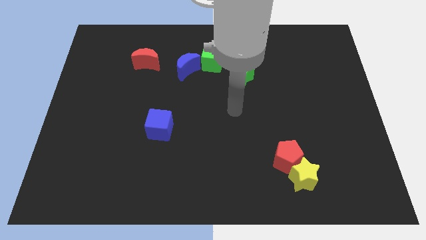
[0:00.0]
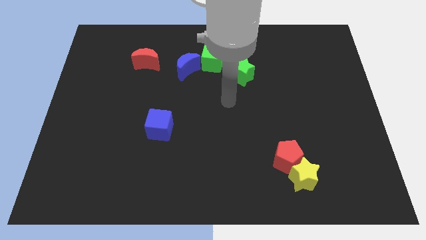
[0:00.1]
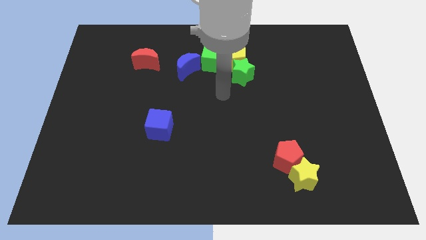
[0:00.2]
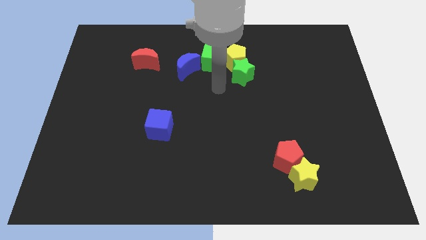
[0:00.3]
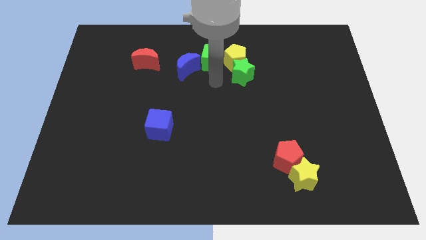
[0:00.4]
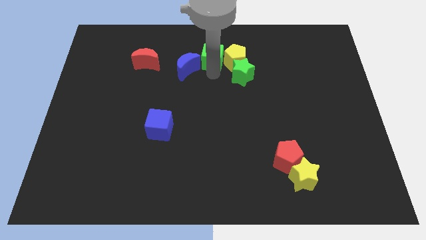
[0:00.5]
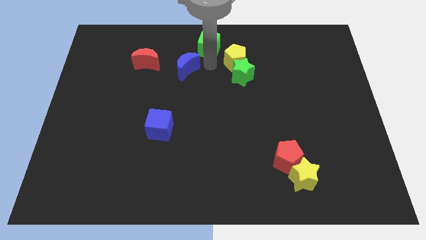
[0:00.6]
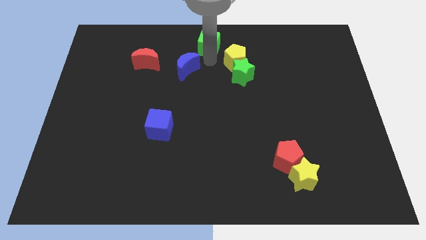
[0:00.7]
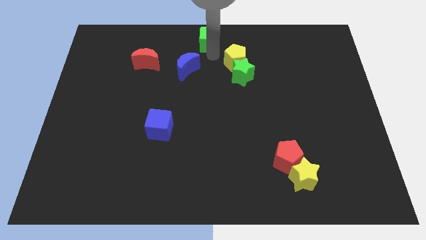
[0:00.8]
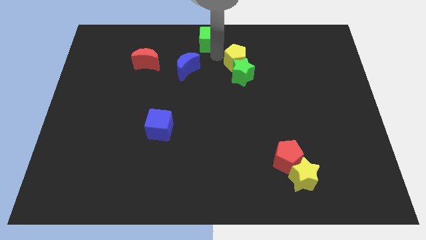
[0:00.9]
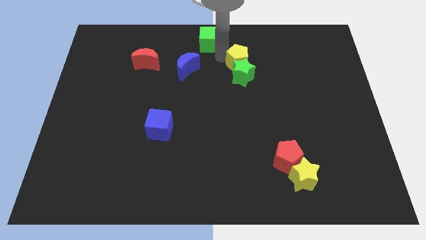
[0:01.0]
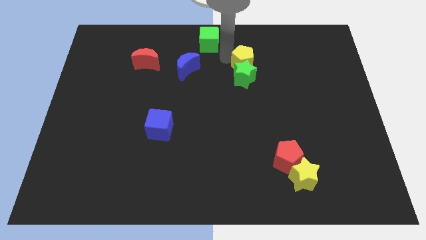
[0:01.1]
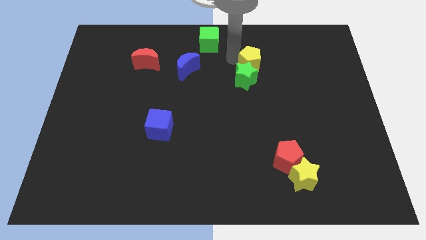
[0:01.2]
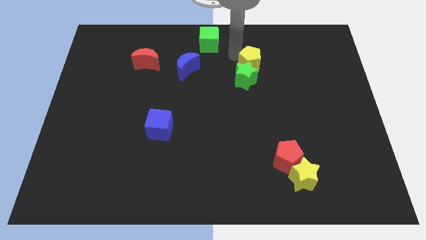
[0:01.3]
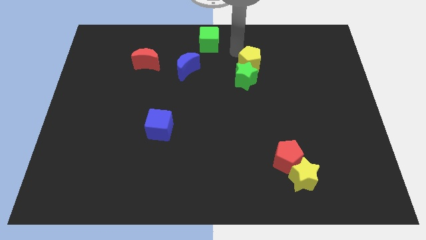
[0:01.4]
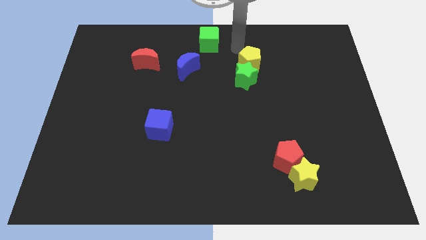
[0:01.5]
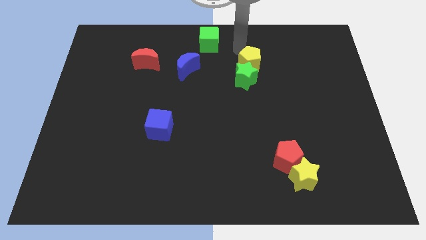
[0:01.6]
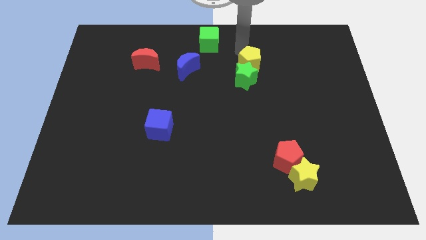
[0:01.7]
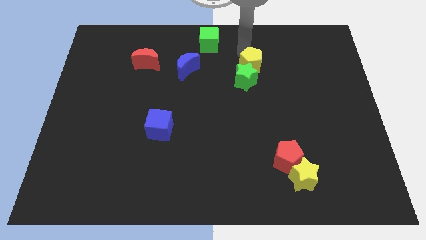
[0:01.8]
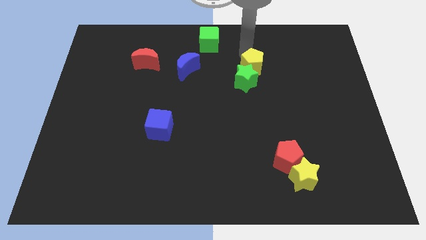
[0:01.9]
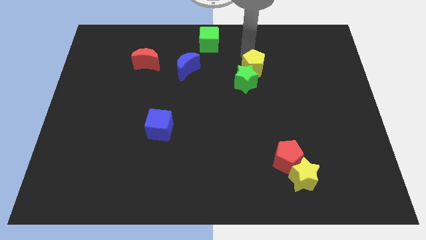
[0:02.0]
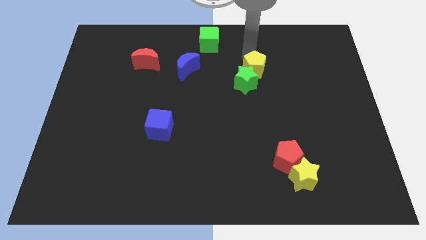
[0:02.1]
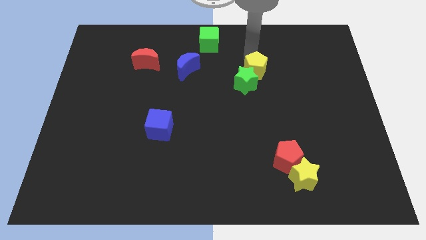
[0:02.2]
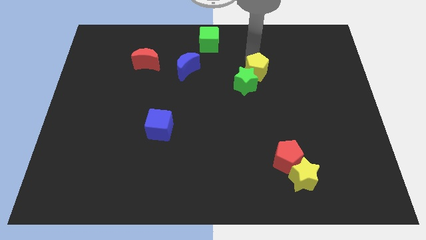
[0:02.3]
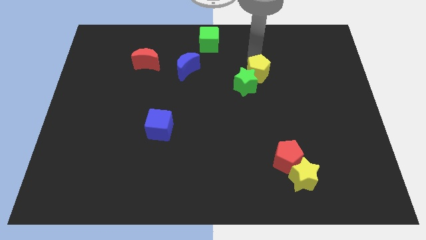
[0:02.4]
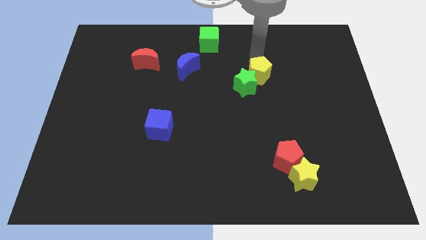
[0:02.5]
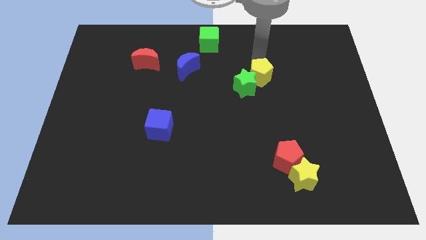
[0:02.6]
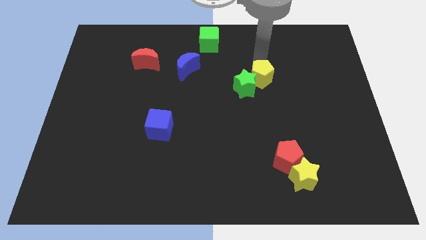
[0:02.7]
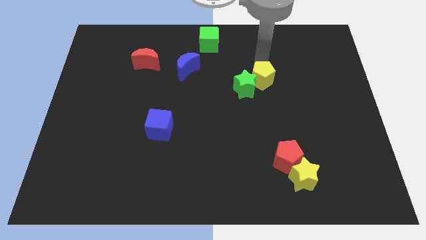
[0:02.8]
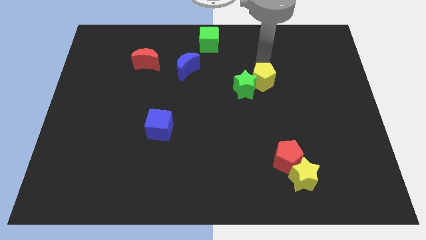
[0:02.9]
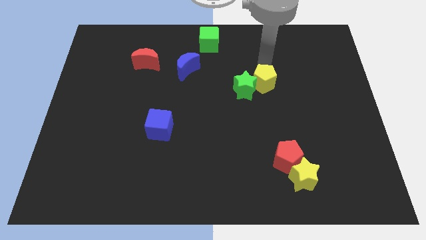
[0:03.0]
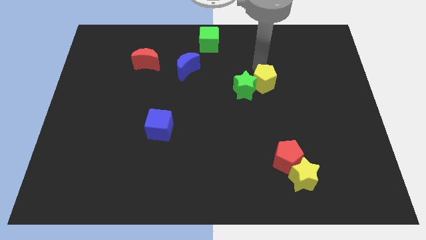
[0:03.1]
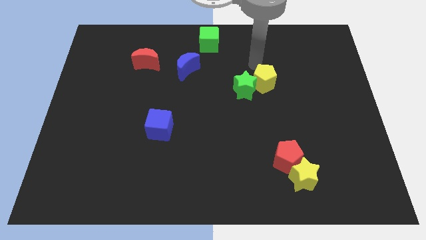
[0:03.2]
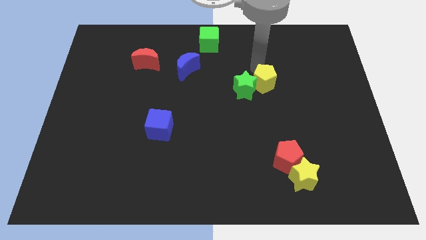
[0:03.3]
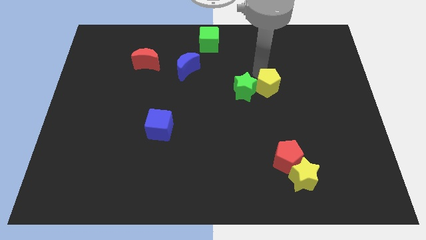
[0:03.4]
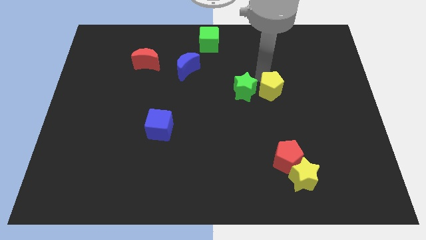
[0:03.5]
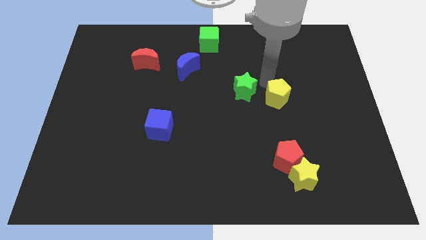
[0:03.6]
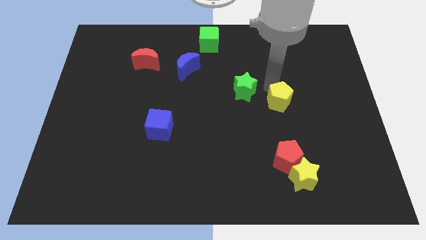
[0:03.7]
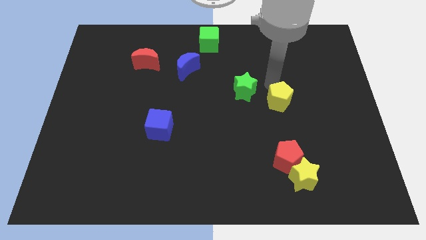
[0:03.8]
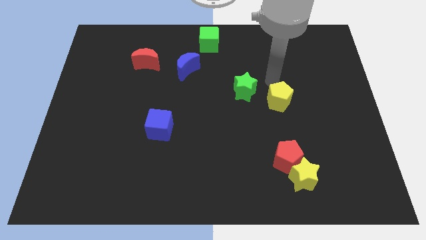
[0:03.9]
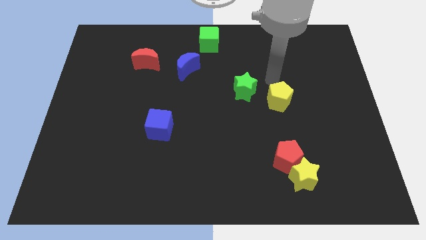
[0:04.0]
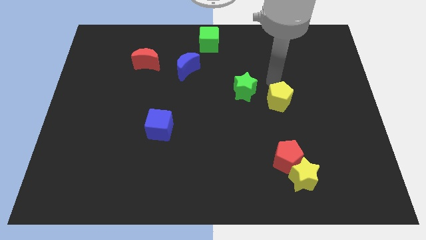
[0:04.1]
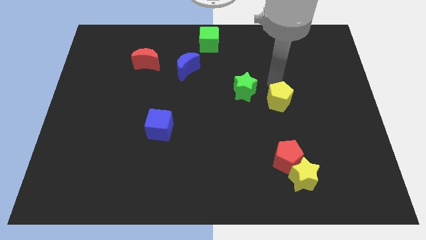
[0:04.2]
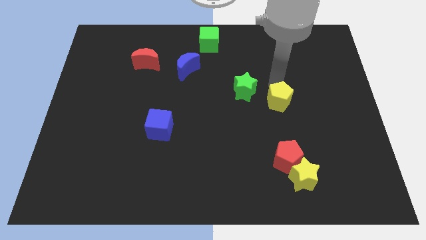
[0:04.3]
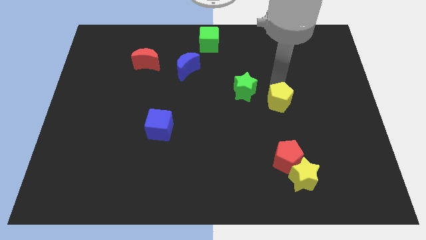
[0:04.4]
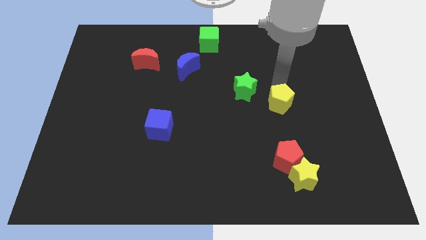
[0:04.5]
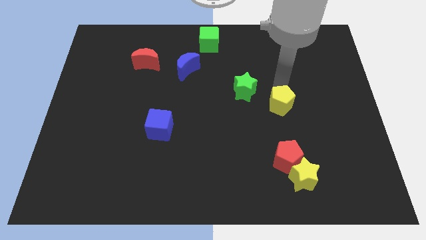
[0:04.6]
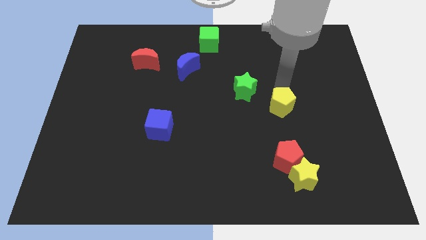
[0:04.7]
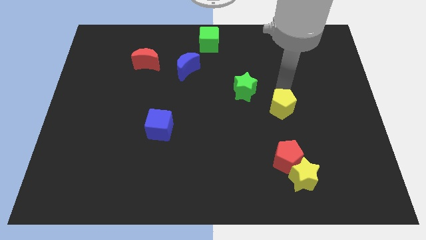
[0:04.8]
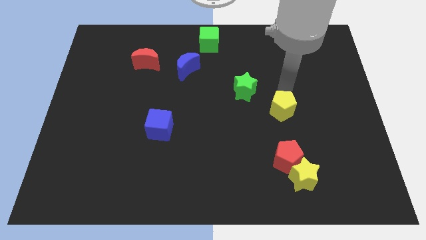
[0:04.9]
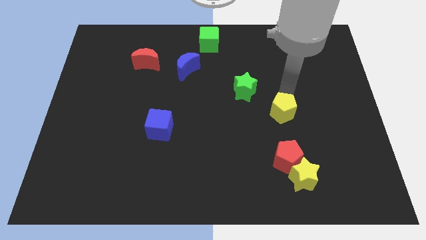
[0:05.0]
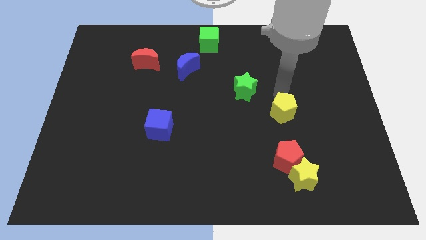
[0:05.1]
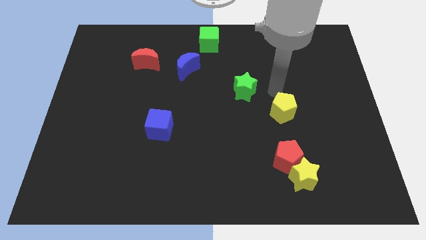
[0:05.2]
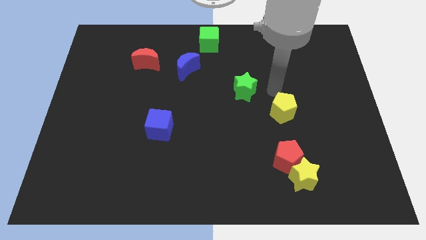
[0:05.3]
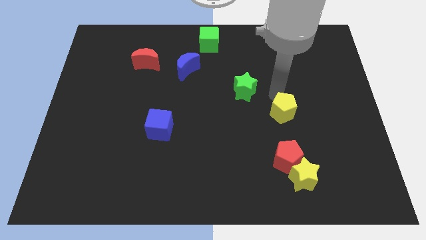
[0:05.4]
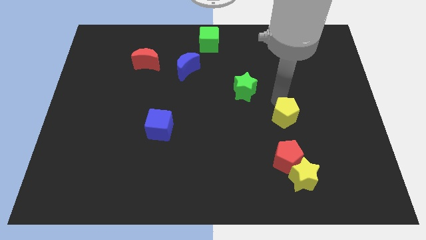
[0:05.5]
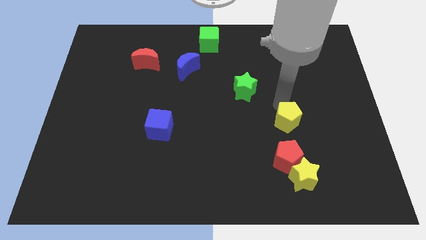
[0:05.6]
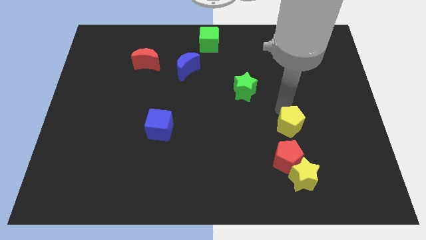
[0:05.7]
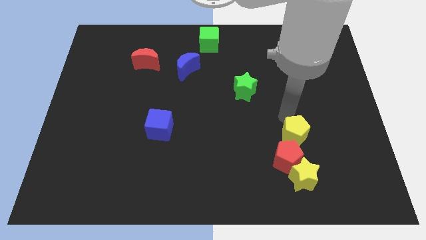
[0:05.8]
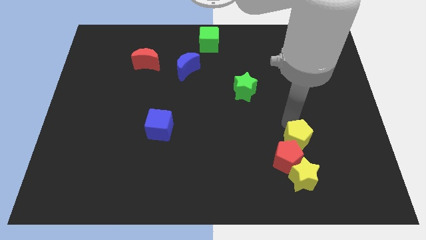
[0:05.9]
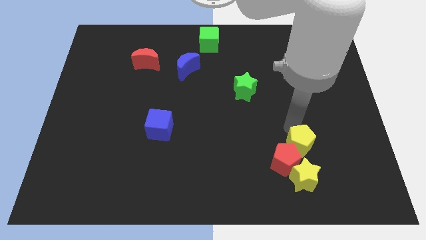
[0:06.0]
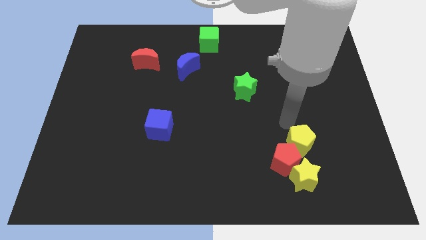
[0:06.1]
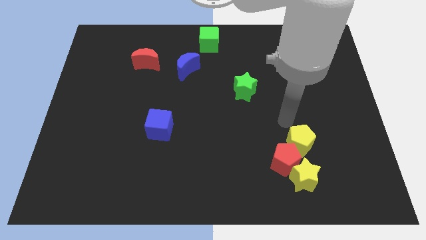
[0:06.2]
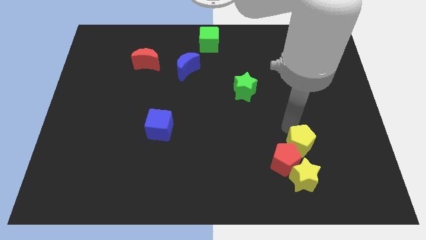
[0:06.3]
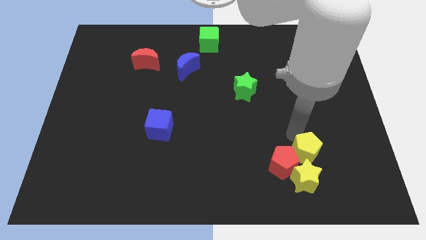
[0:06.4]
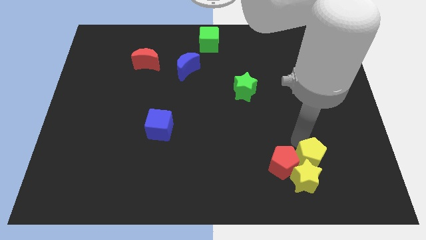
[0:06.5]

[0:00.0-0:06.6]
slide the yellow pentagon to the yellow star
